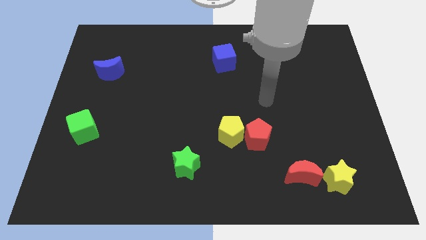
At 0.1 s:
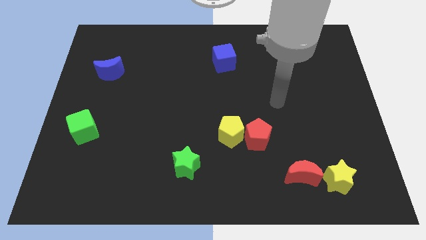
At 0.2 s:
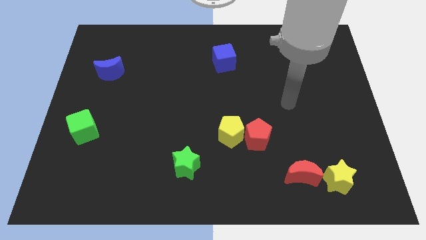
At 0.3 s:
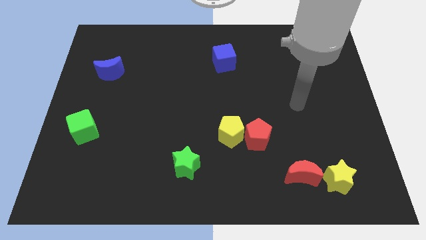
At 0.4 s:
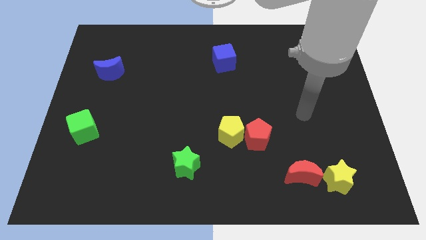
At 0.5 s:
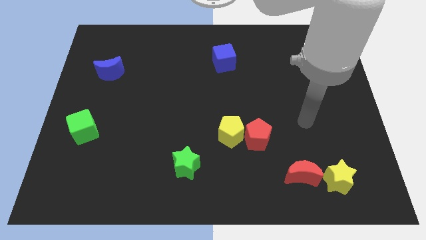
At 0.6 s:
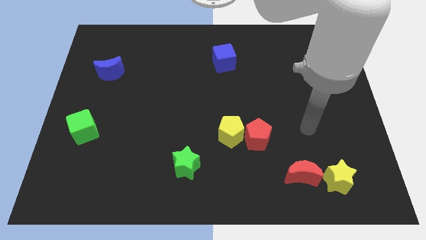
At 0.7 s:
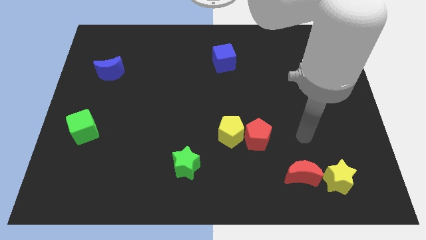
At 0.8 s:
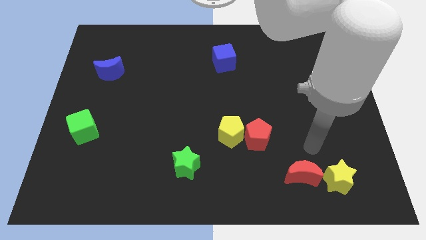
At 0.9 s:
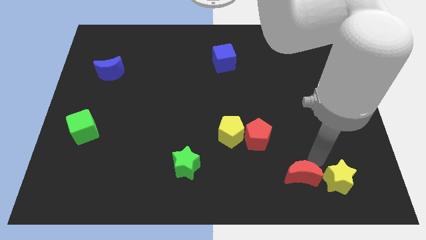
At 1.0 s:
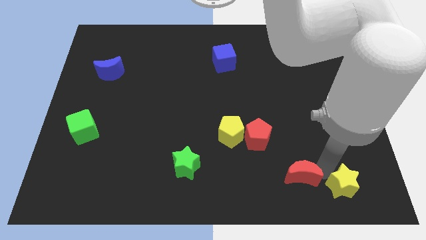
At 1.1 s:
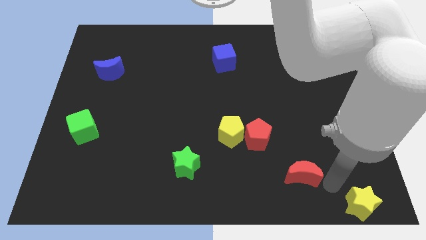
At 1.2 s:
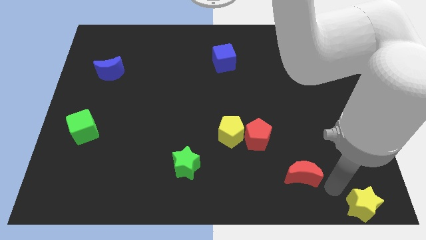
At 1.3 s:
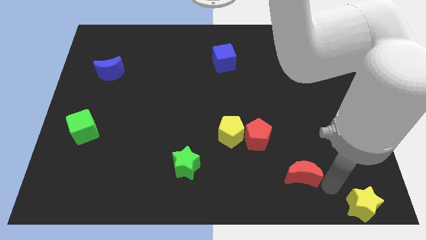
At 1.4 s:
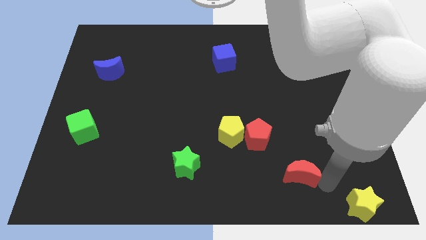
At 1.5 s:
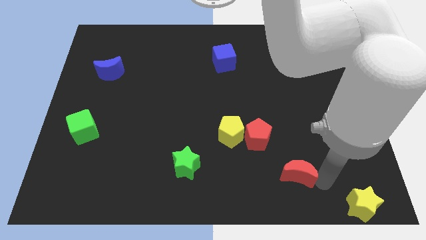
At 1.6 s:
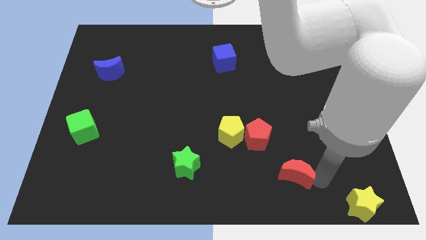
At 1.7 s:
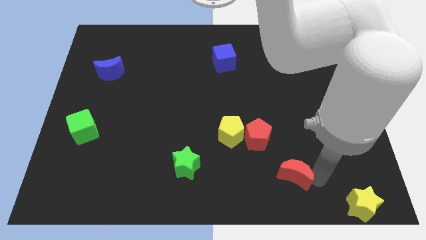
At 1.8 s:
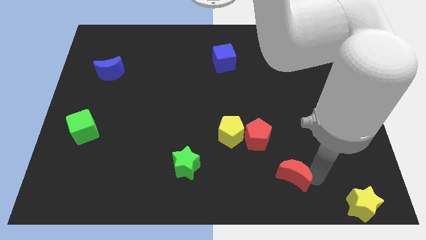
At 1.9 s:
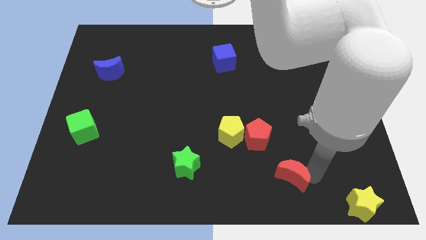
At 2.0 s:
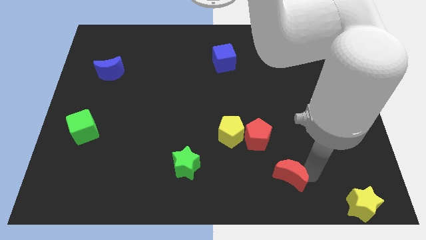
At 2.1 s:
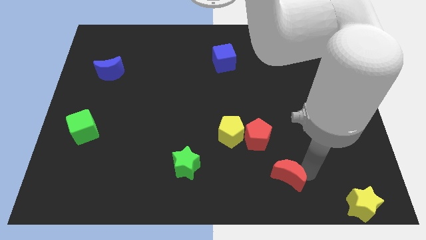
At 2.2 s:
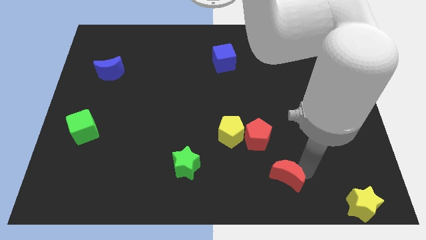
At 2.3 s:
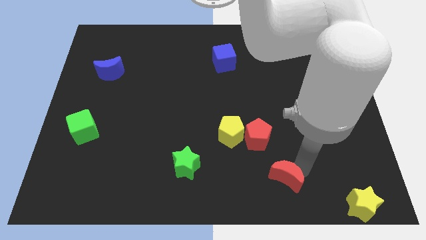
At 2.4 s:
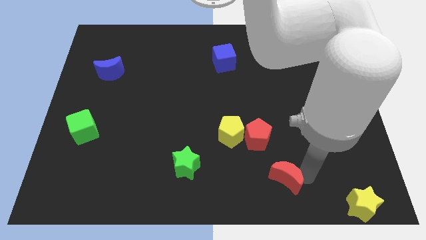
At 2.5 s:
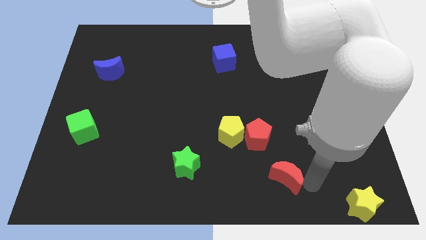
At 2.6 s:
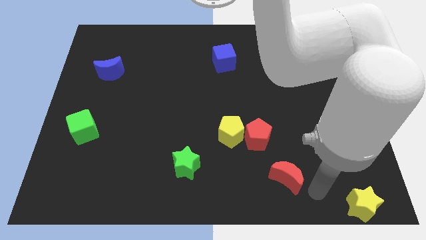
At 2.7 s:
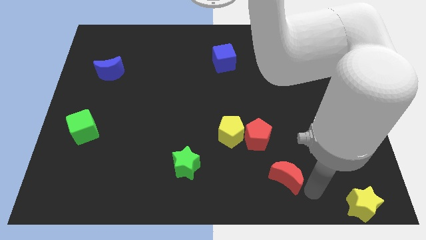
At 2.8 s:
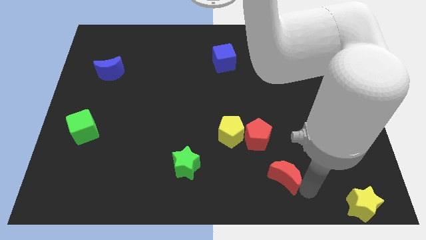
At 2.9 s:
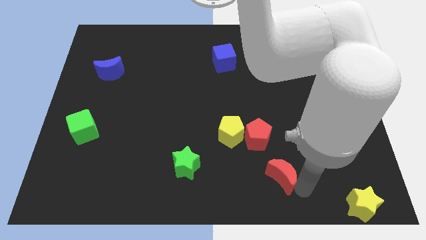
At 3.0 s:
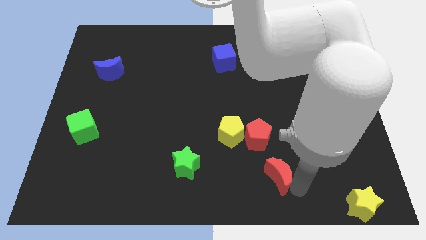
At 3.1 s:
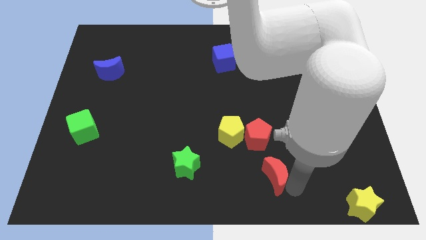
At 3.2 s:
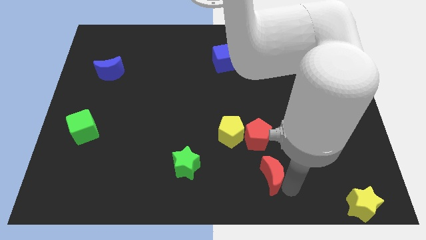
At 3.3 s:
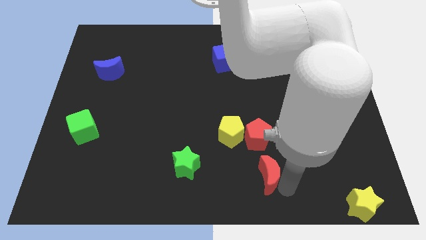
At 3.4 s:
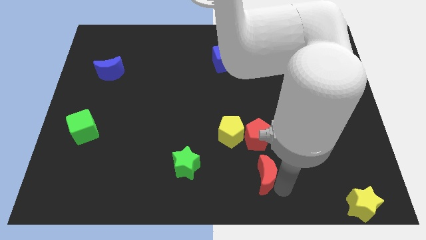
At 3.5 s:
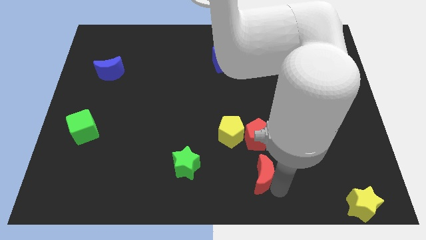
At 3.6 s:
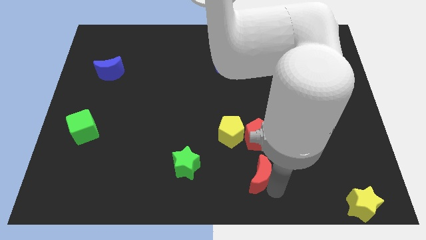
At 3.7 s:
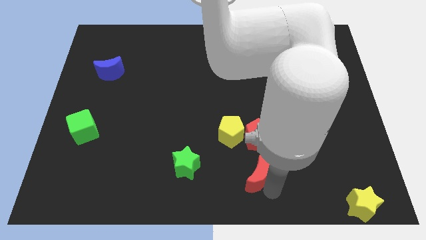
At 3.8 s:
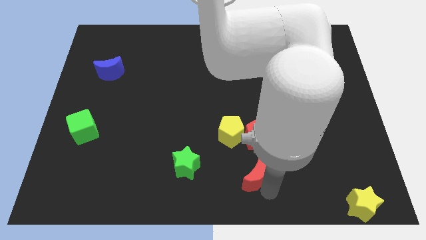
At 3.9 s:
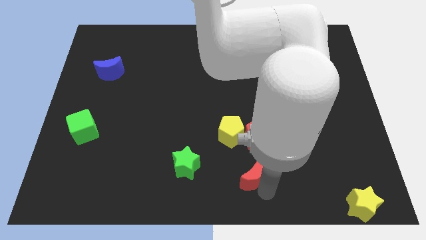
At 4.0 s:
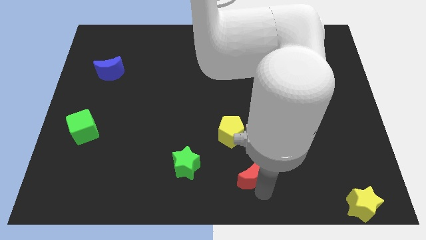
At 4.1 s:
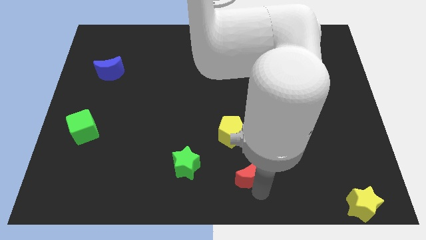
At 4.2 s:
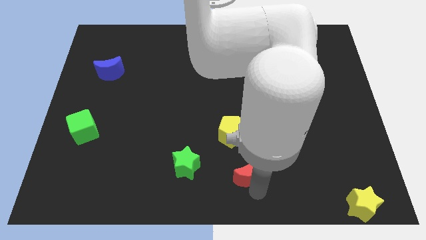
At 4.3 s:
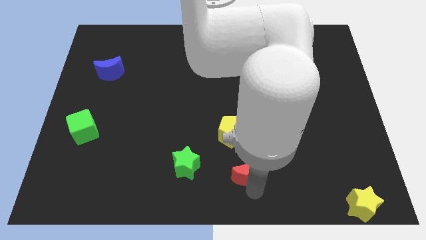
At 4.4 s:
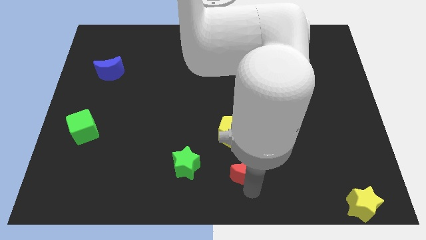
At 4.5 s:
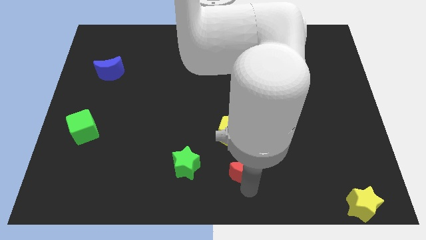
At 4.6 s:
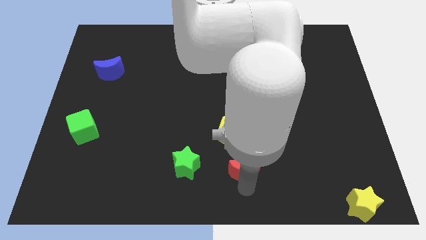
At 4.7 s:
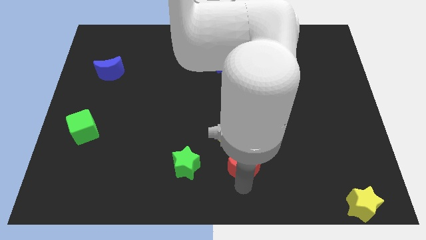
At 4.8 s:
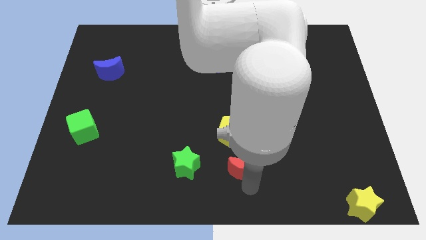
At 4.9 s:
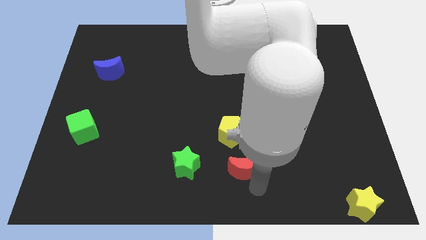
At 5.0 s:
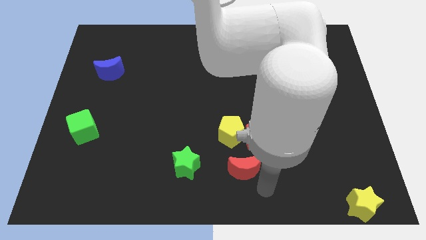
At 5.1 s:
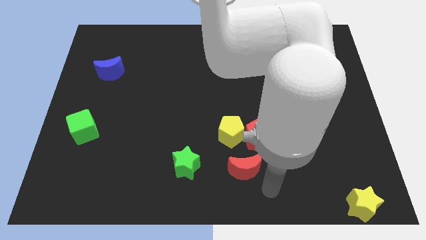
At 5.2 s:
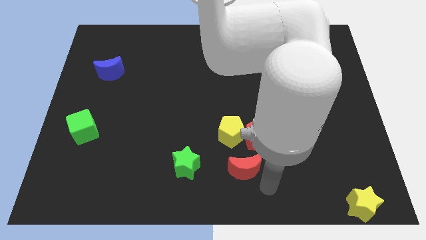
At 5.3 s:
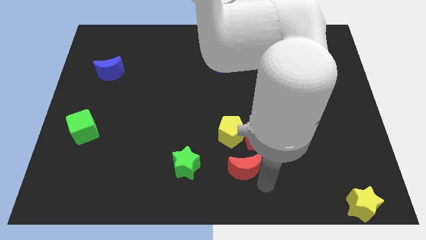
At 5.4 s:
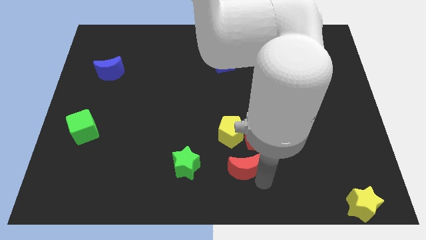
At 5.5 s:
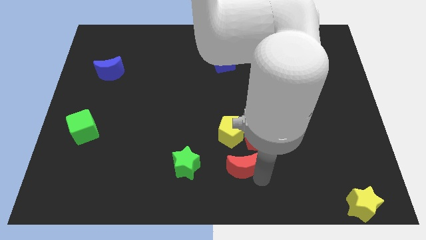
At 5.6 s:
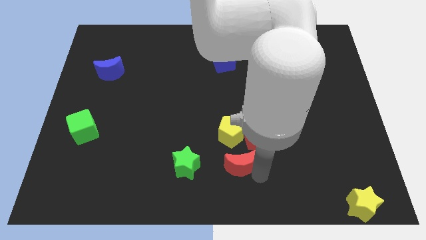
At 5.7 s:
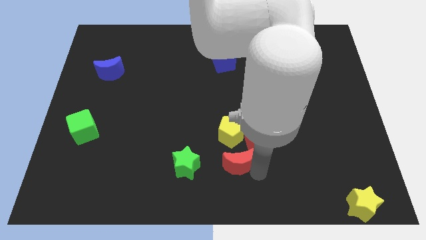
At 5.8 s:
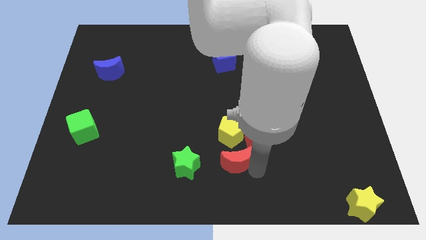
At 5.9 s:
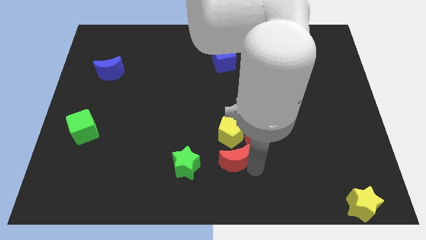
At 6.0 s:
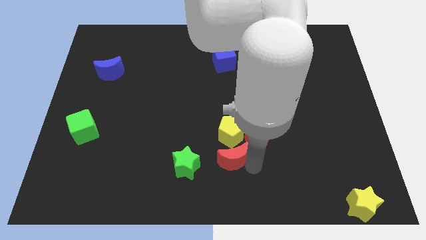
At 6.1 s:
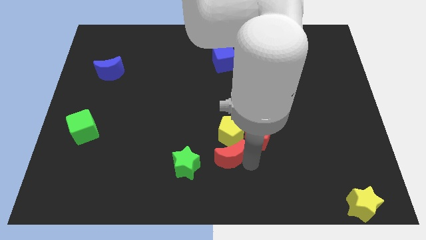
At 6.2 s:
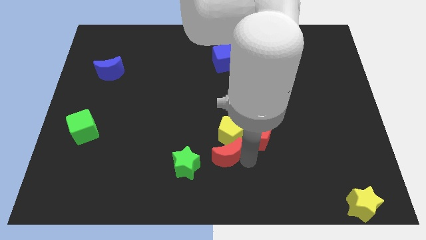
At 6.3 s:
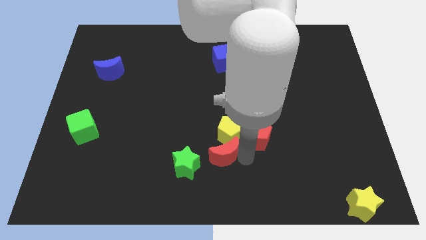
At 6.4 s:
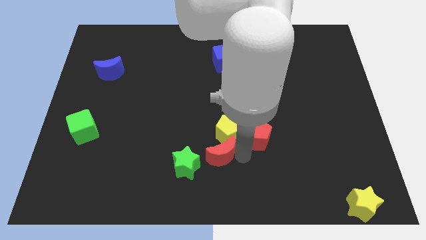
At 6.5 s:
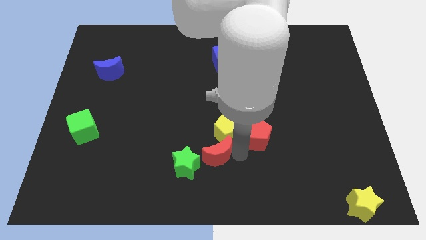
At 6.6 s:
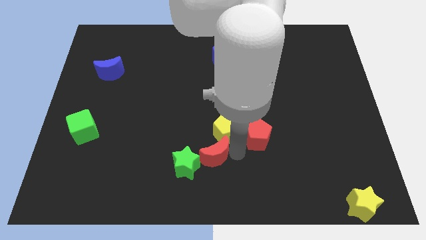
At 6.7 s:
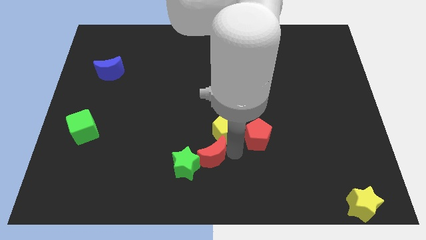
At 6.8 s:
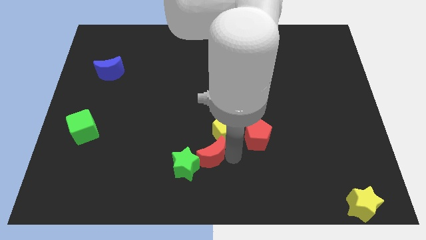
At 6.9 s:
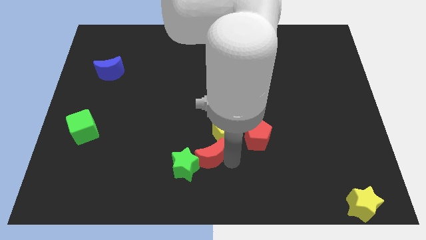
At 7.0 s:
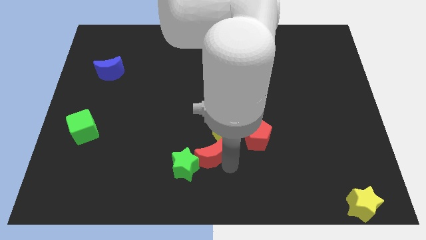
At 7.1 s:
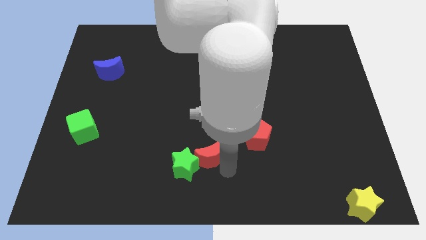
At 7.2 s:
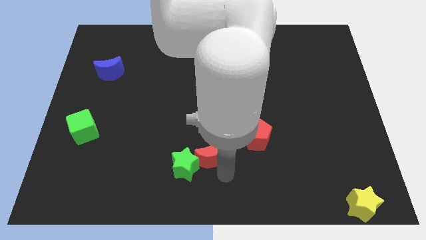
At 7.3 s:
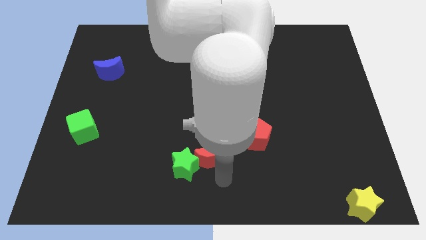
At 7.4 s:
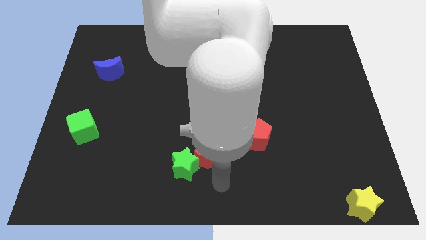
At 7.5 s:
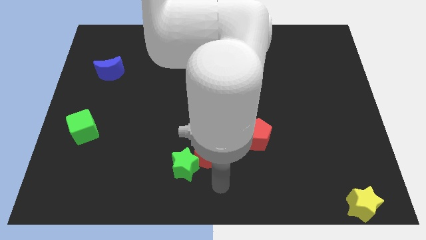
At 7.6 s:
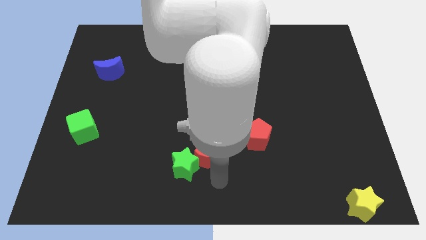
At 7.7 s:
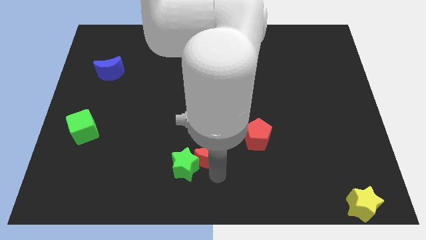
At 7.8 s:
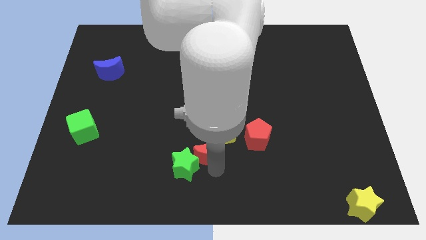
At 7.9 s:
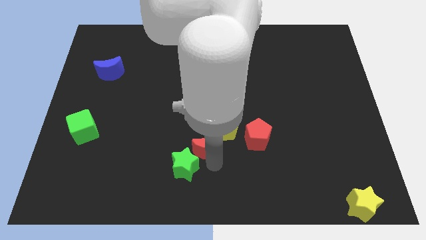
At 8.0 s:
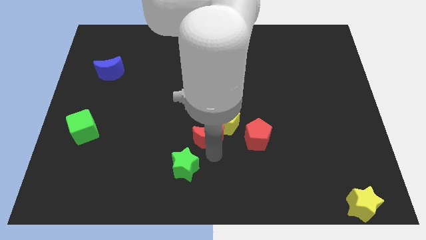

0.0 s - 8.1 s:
slide the red moon to the top side of the green star
